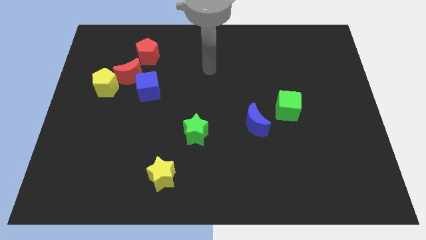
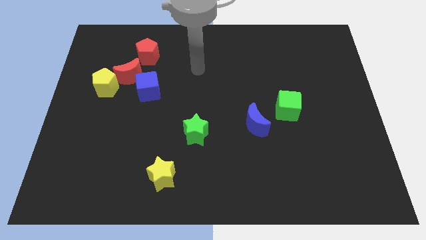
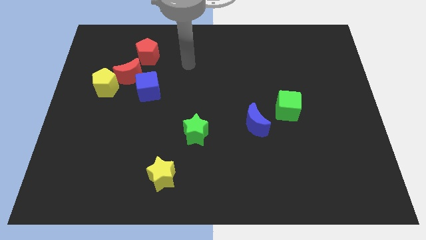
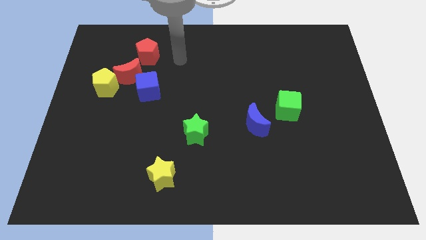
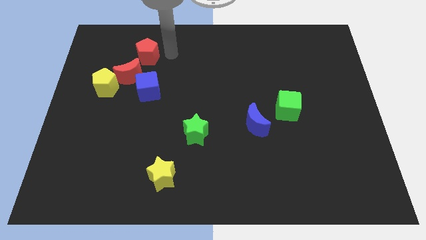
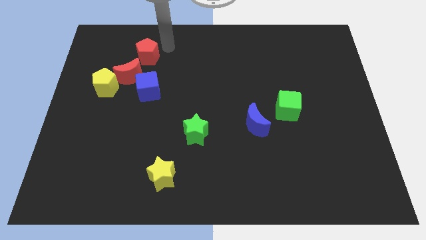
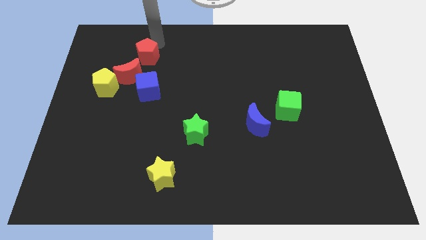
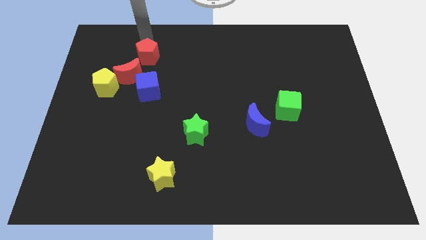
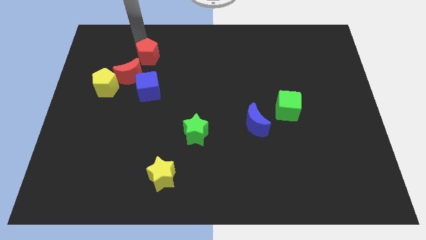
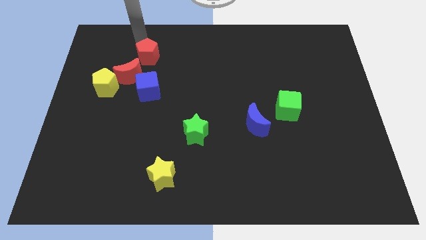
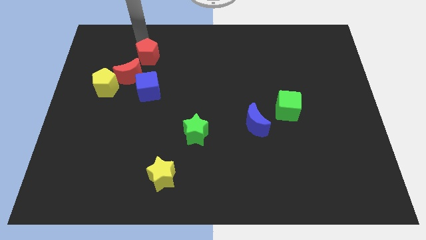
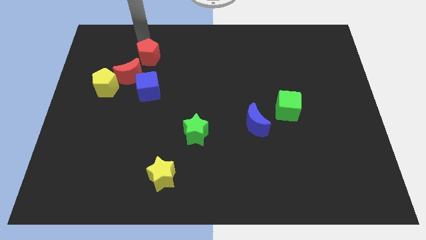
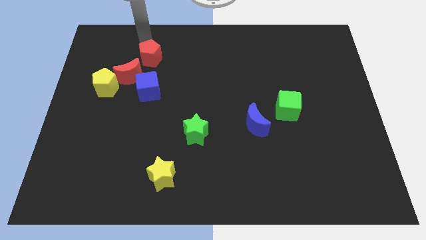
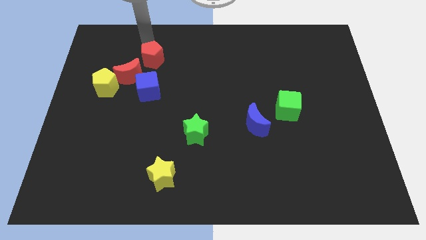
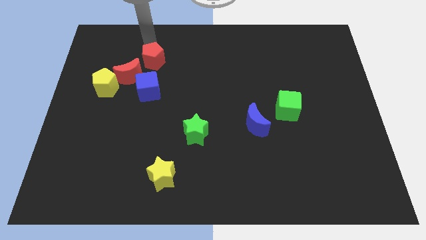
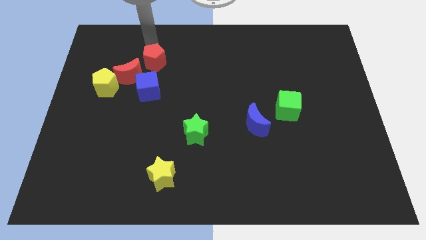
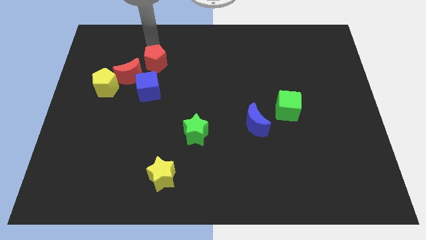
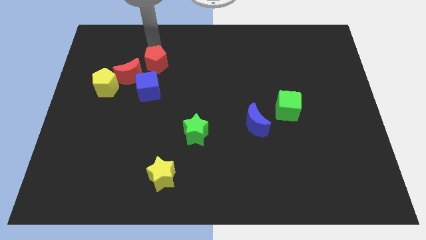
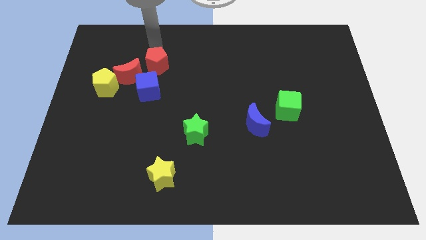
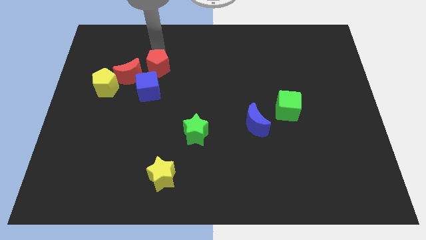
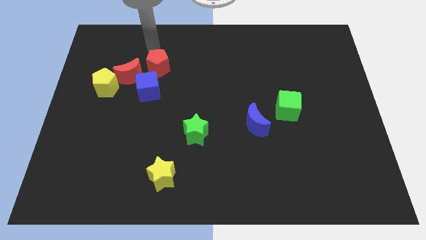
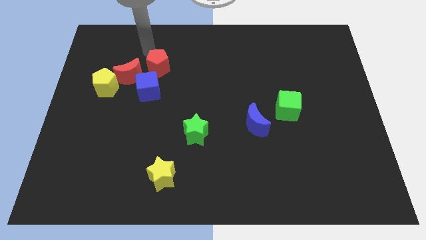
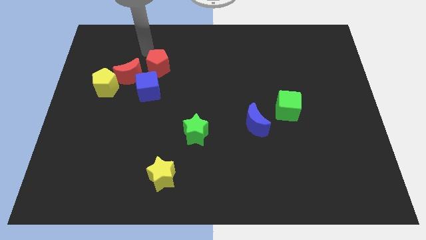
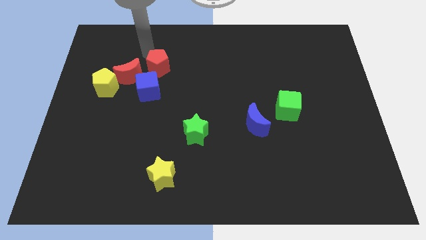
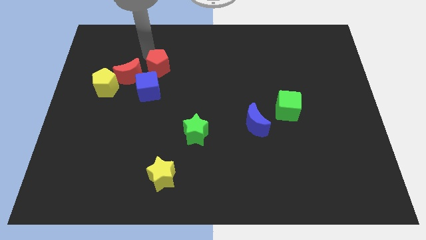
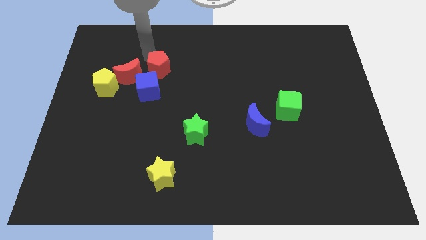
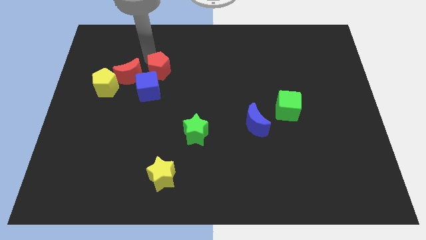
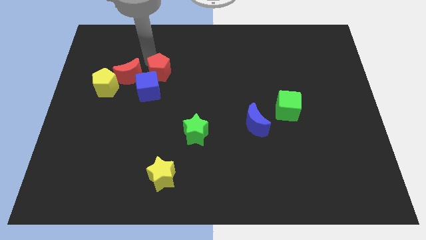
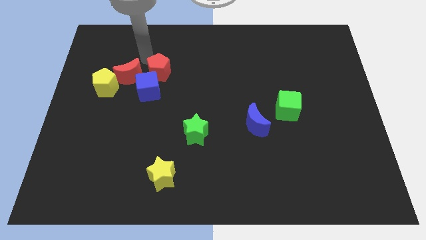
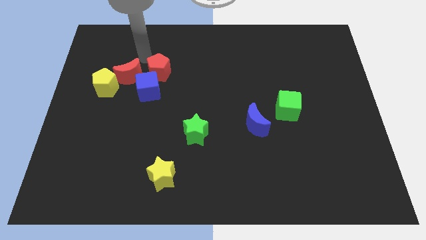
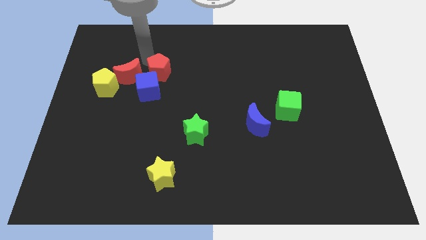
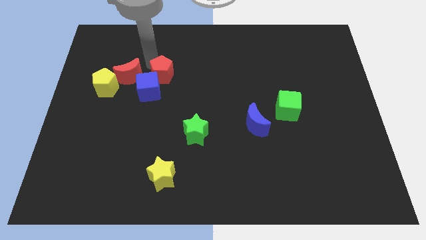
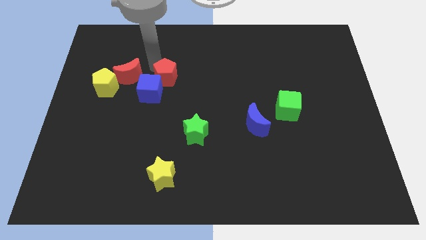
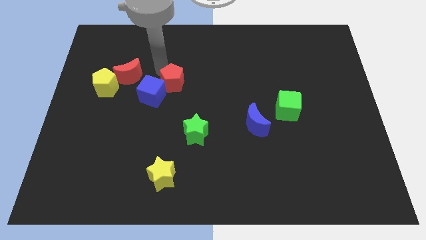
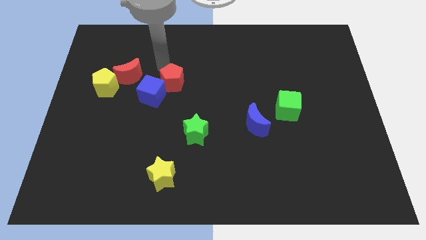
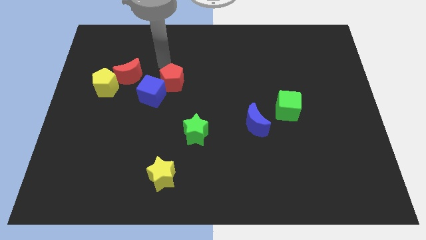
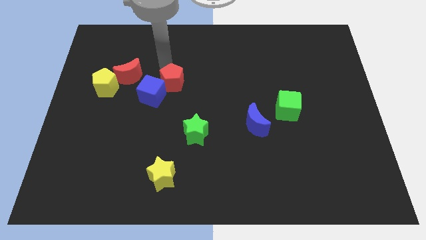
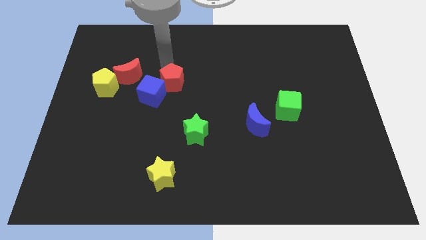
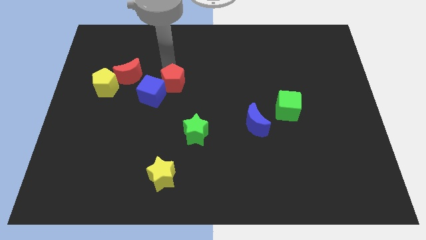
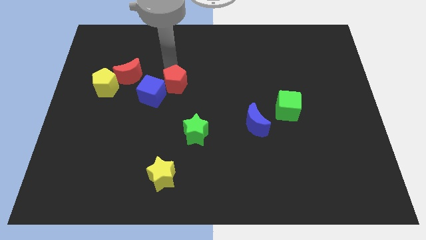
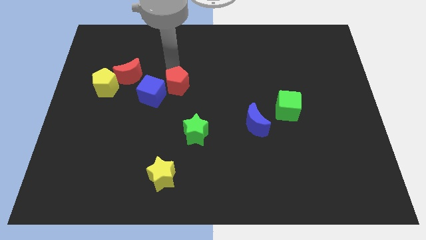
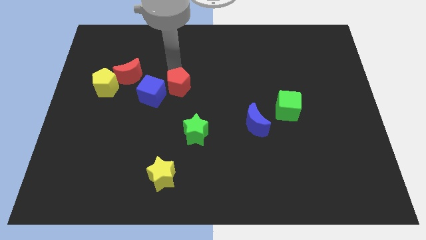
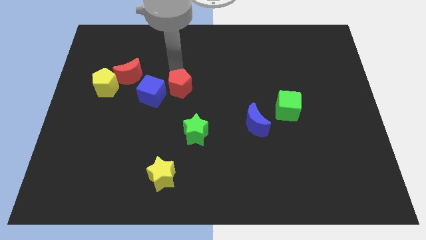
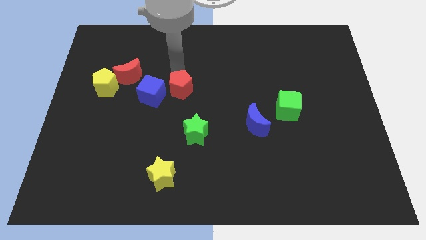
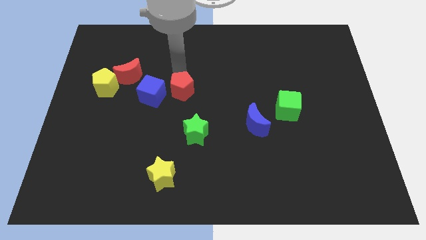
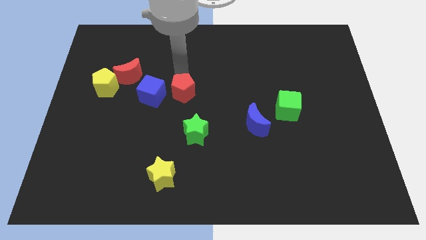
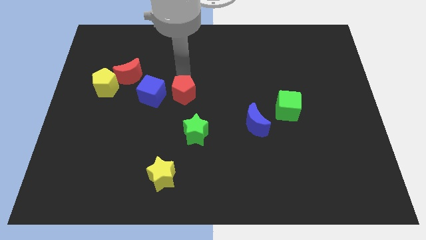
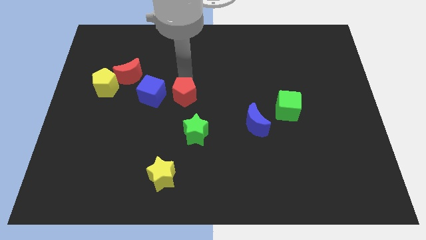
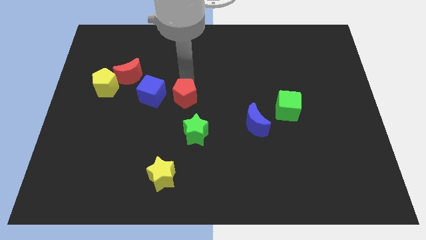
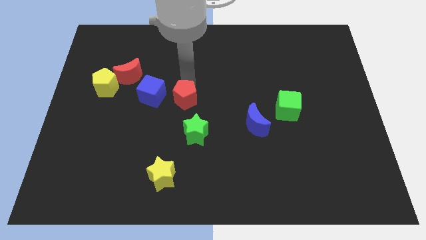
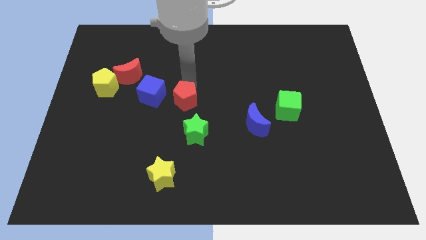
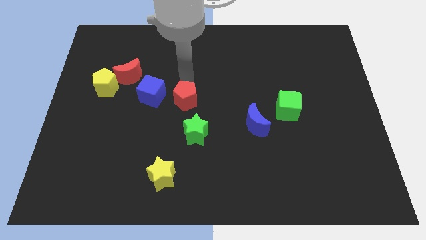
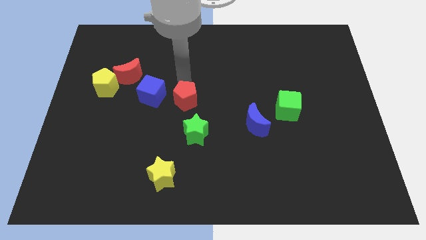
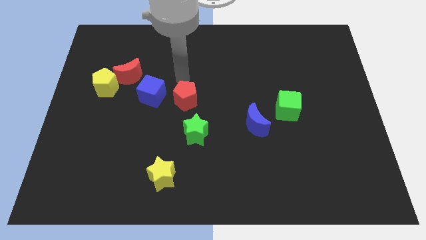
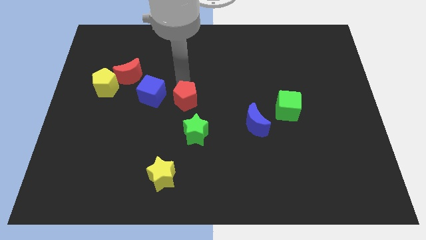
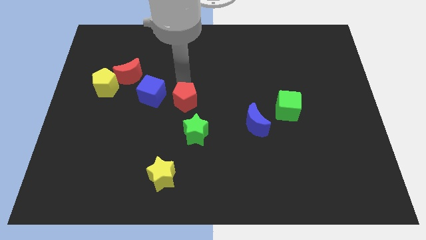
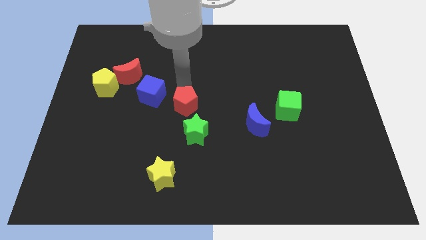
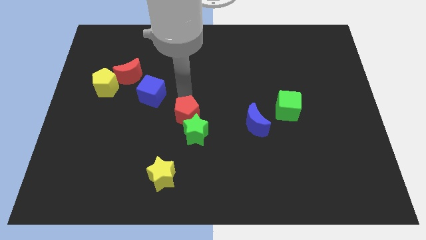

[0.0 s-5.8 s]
slide the red pentagon next to the green star

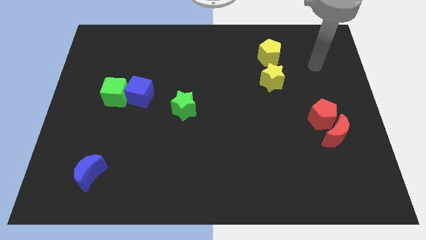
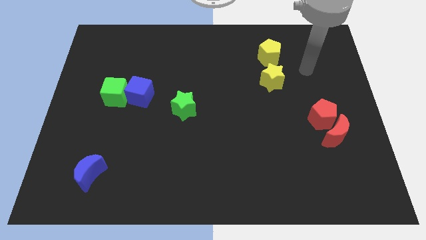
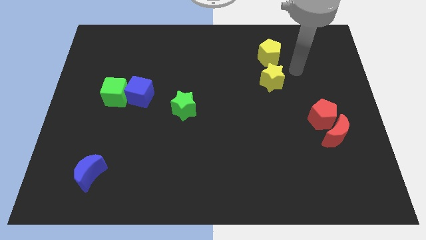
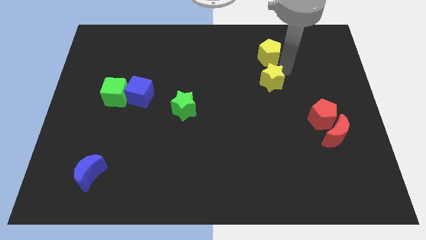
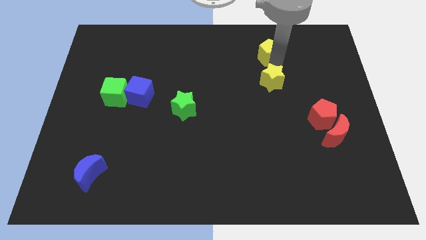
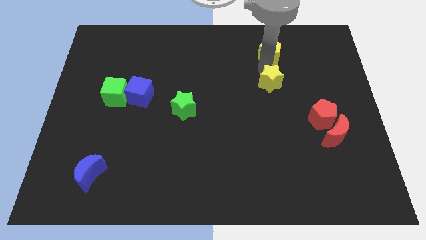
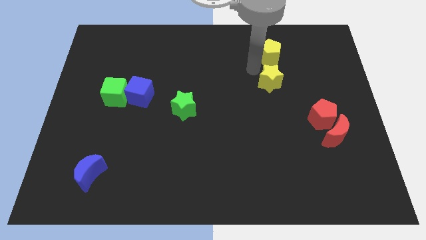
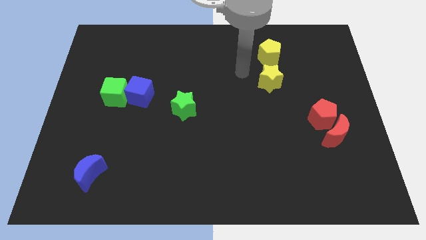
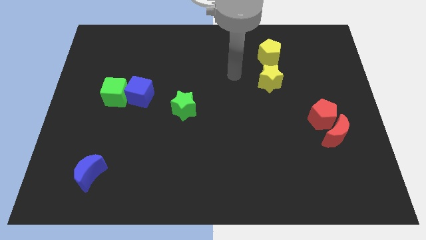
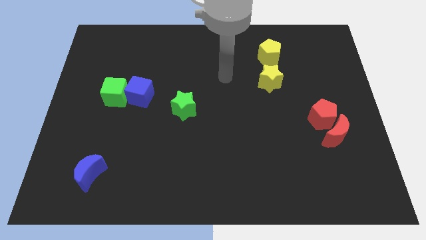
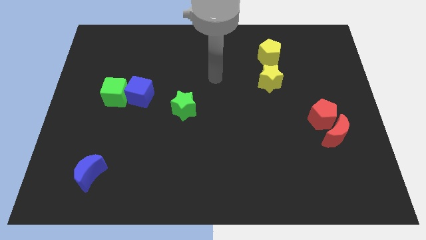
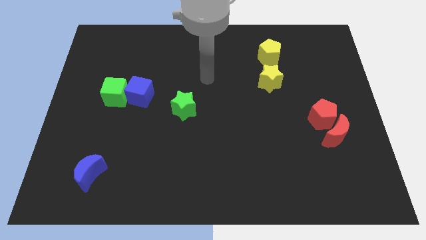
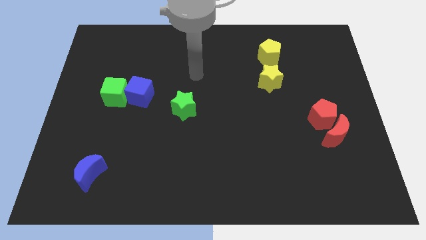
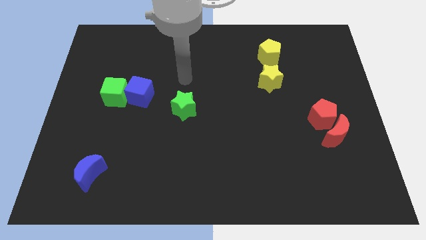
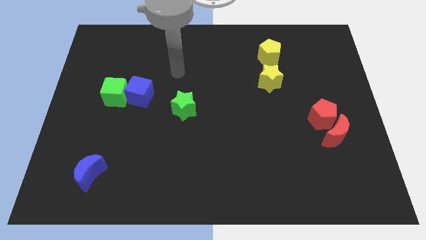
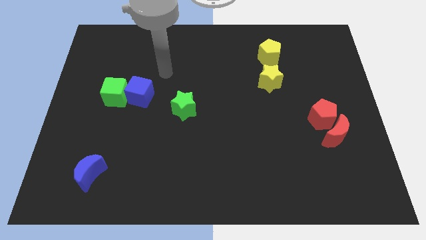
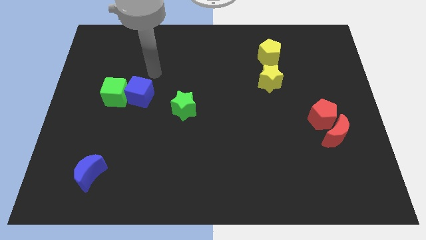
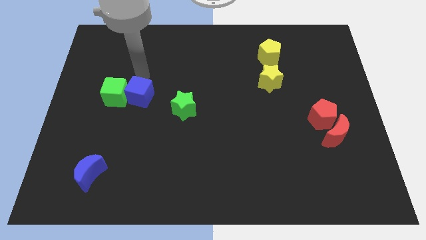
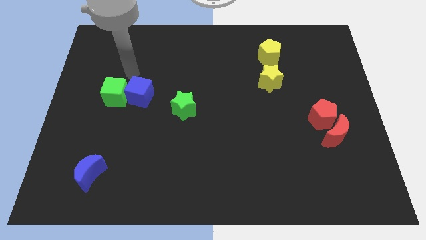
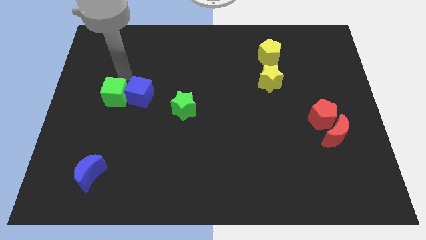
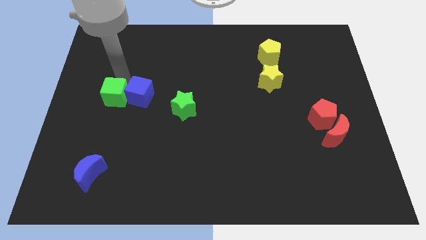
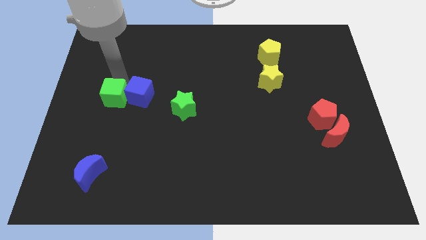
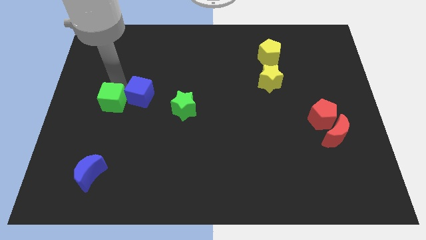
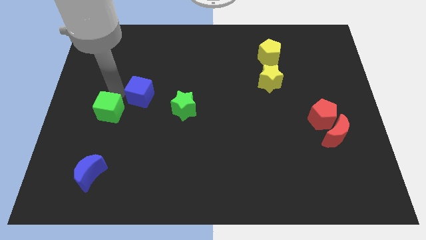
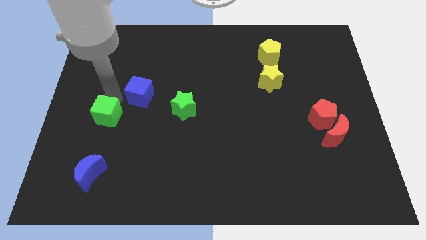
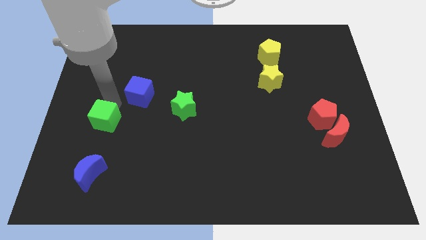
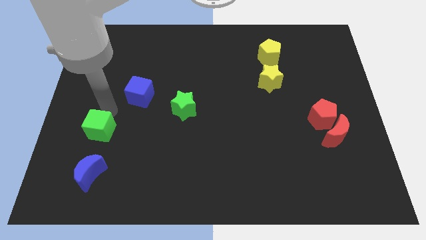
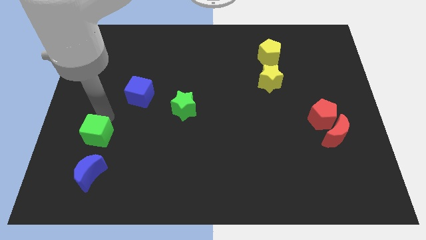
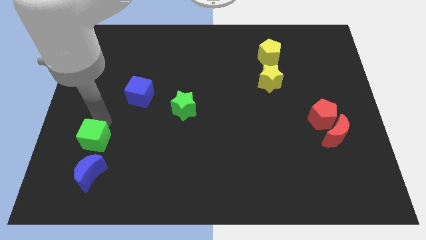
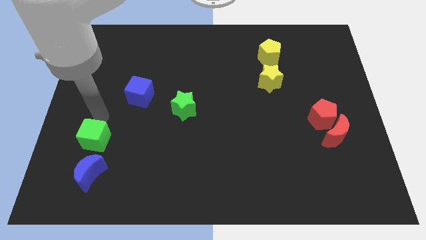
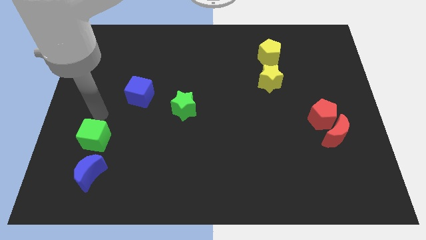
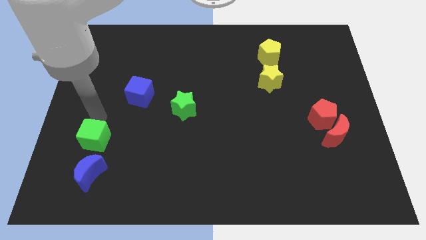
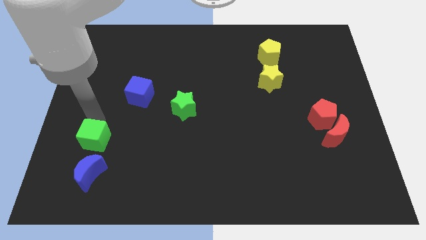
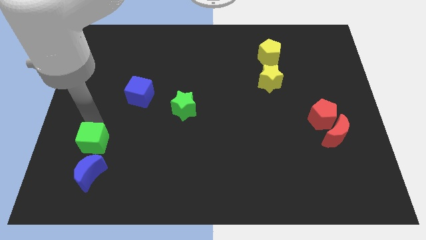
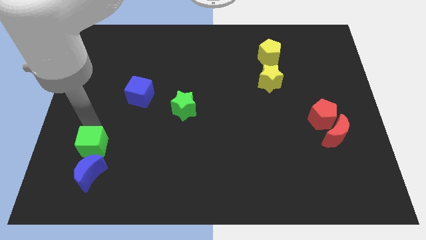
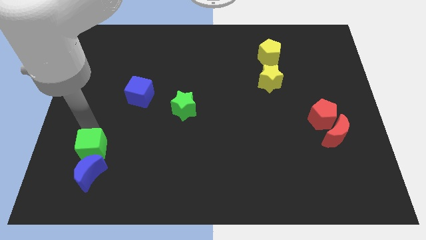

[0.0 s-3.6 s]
move the green cube towards the blue moon
